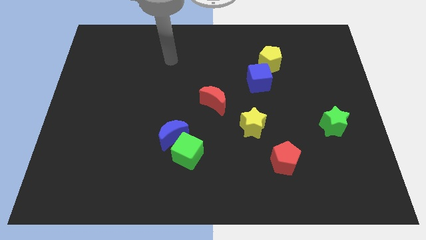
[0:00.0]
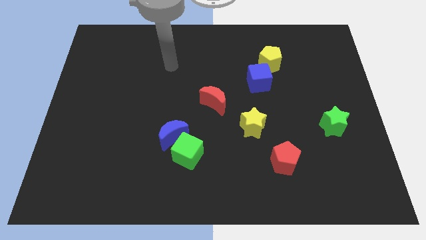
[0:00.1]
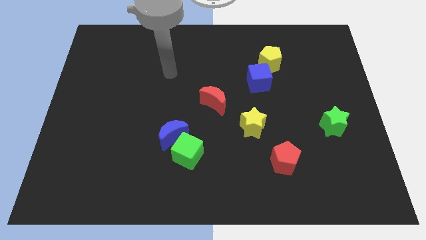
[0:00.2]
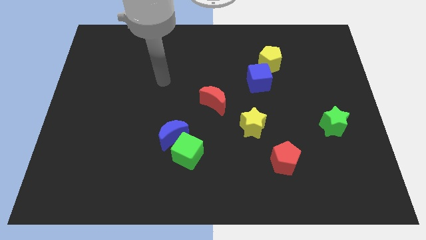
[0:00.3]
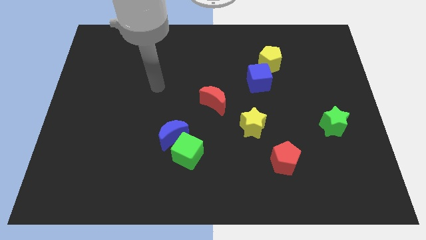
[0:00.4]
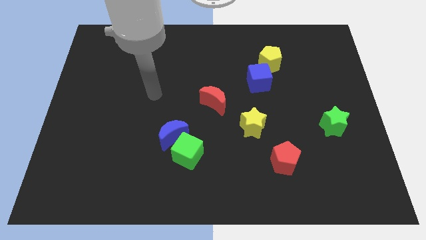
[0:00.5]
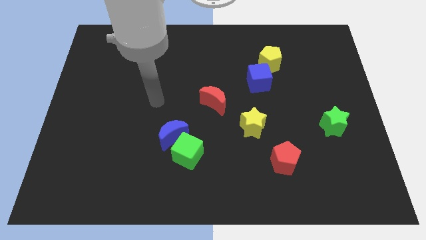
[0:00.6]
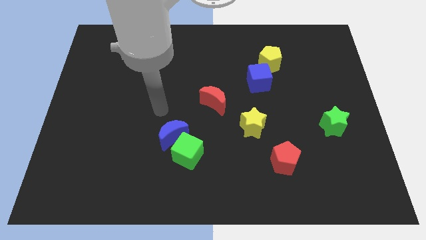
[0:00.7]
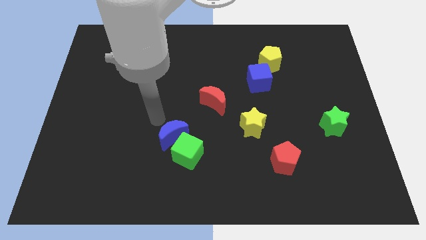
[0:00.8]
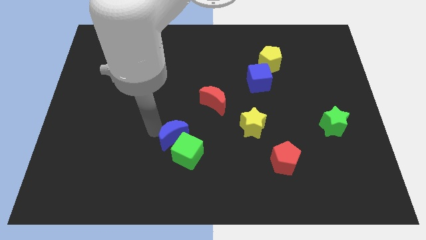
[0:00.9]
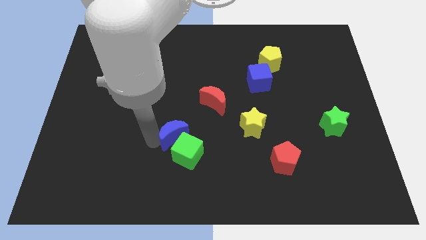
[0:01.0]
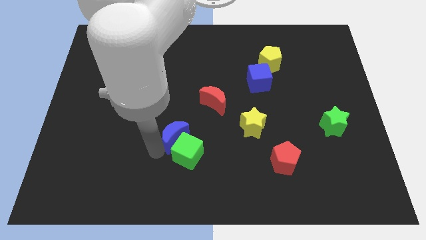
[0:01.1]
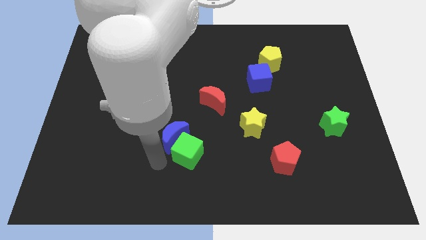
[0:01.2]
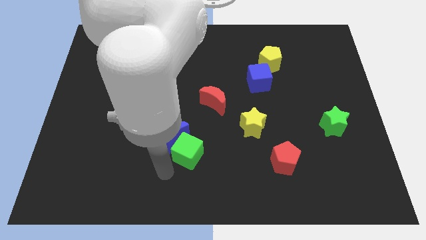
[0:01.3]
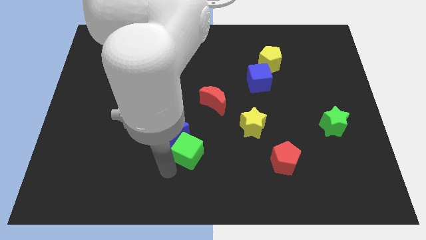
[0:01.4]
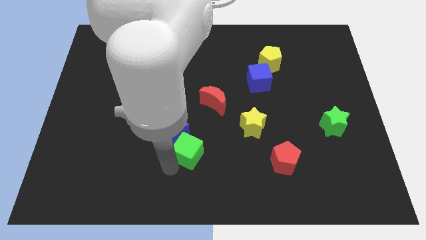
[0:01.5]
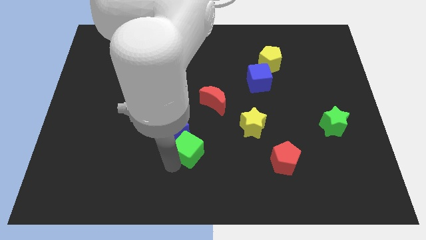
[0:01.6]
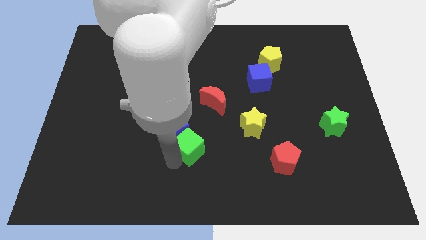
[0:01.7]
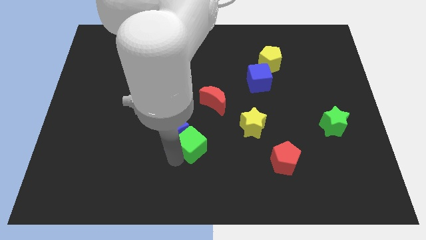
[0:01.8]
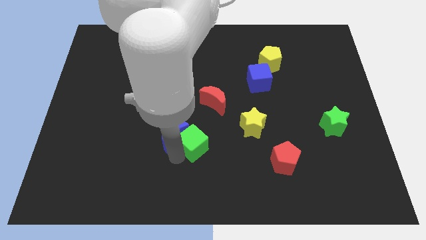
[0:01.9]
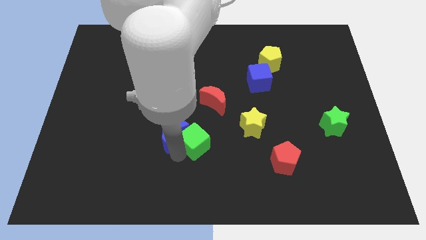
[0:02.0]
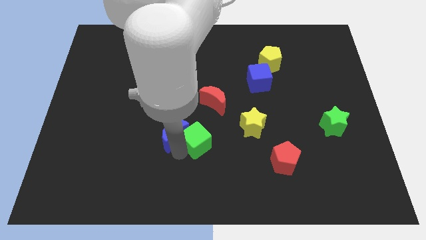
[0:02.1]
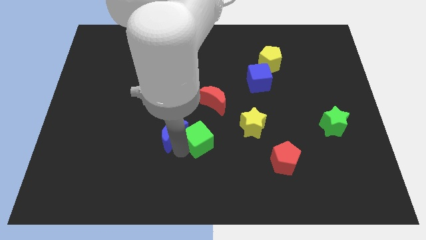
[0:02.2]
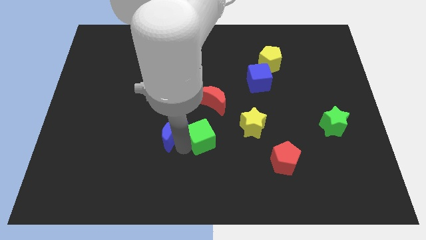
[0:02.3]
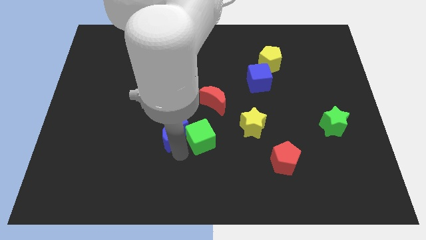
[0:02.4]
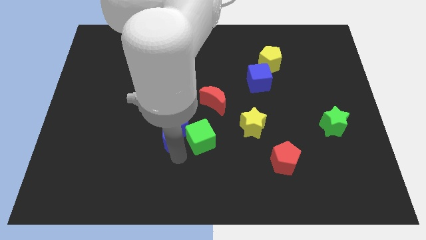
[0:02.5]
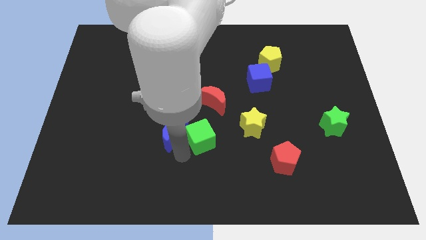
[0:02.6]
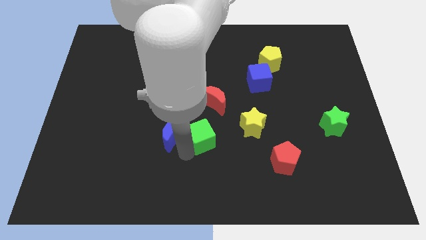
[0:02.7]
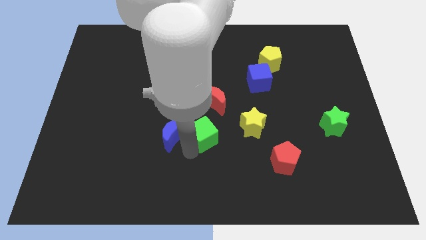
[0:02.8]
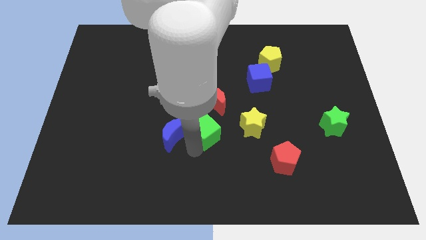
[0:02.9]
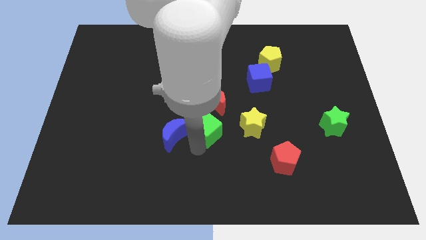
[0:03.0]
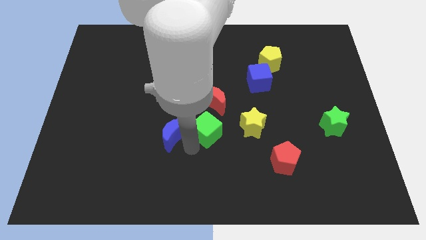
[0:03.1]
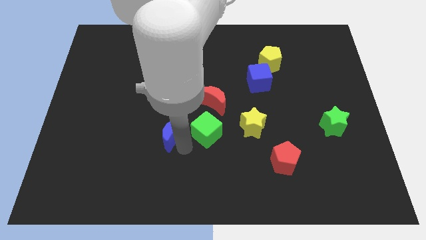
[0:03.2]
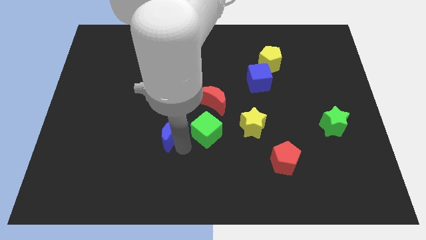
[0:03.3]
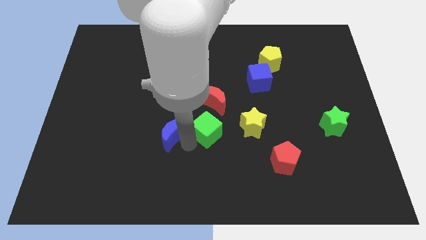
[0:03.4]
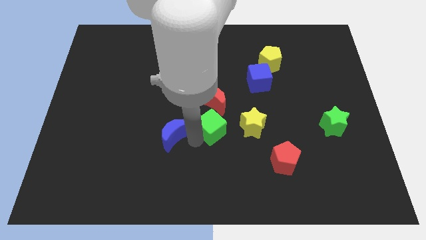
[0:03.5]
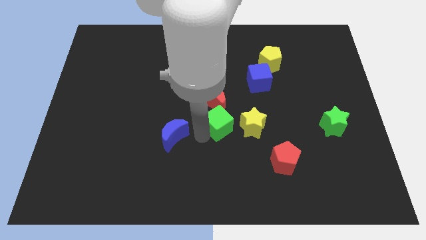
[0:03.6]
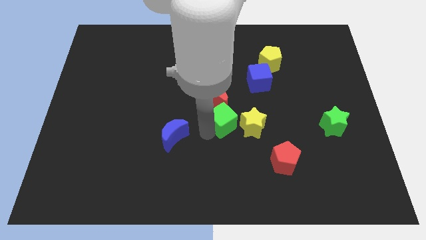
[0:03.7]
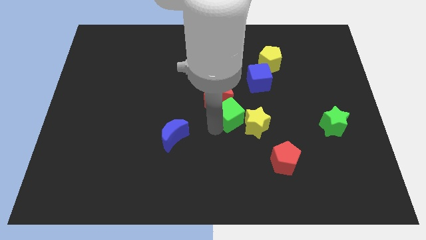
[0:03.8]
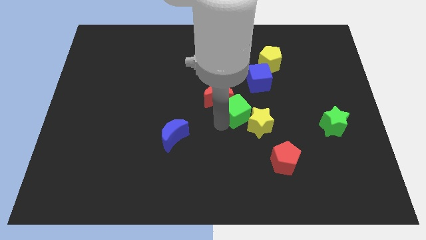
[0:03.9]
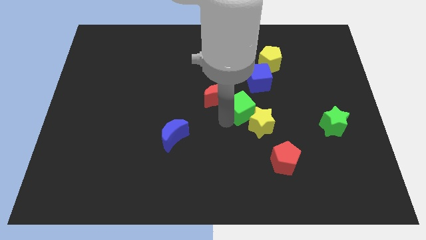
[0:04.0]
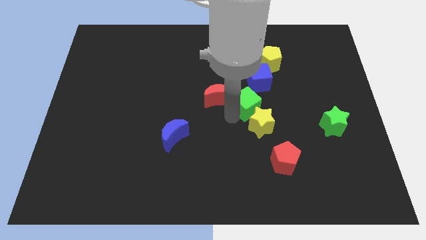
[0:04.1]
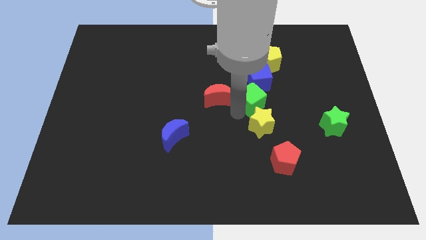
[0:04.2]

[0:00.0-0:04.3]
slide the green cube up and to the right diagonally

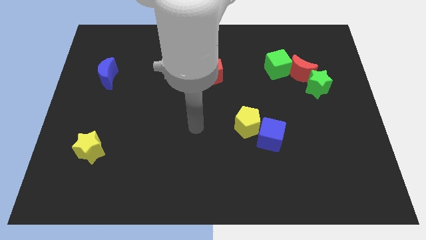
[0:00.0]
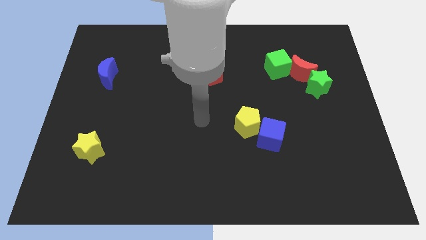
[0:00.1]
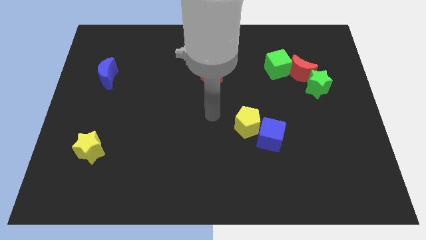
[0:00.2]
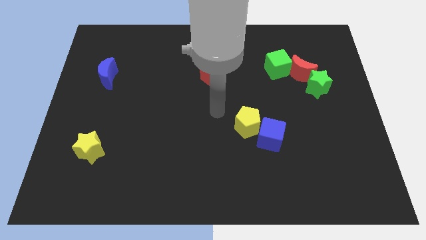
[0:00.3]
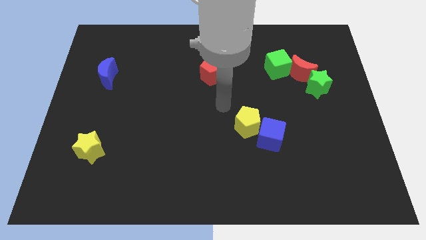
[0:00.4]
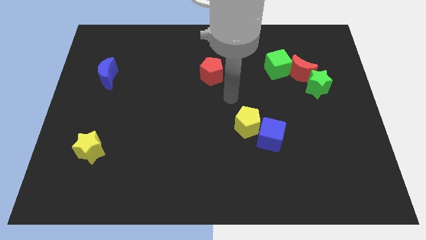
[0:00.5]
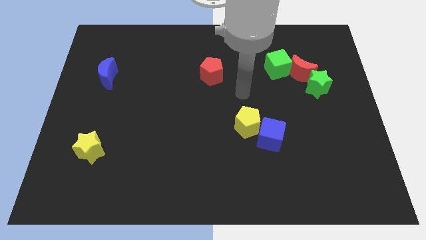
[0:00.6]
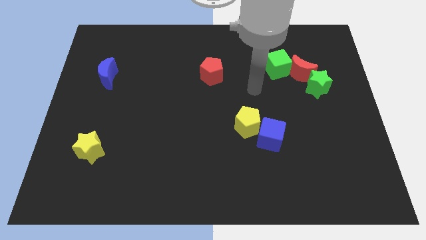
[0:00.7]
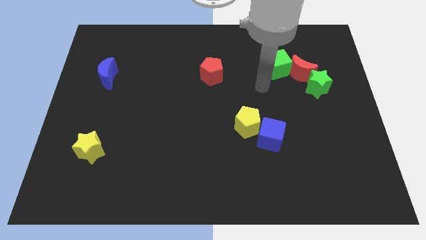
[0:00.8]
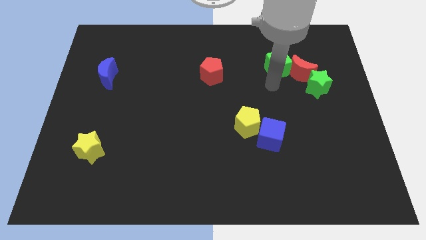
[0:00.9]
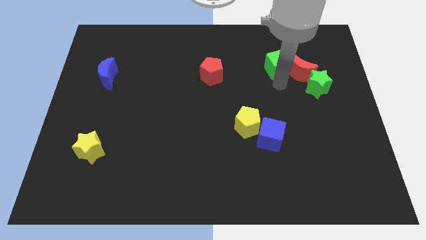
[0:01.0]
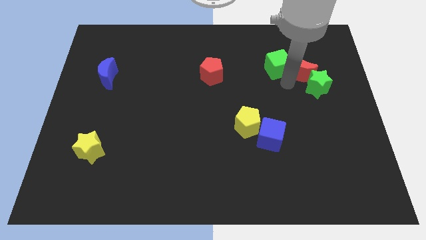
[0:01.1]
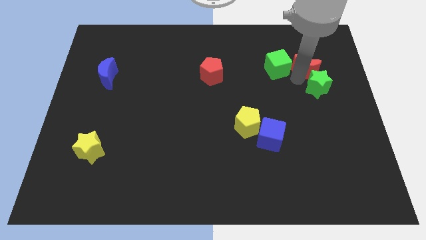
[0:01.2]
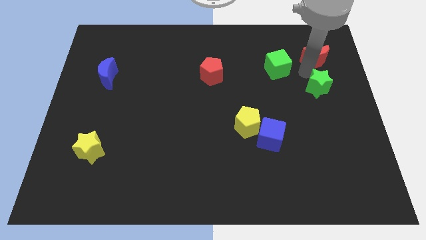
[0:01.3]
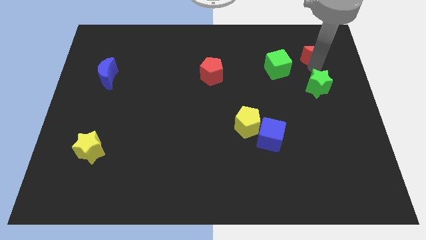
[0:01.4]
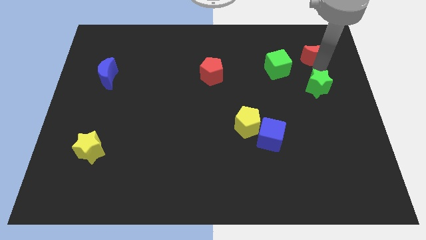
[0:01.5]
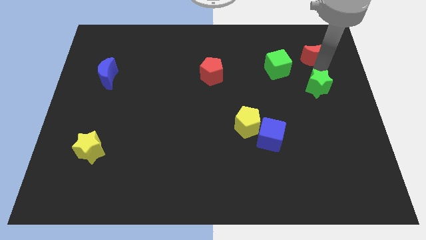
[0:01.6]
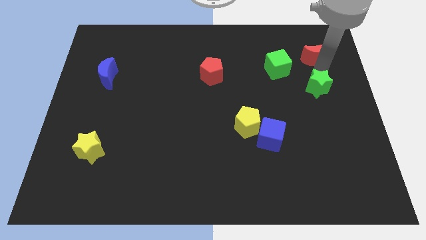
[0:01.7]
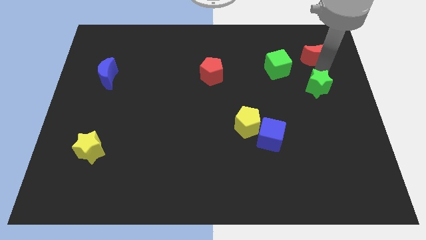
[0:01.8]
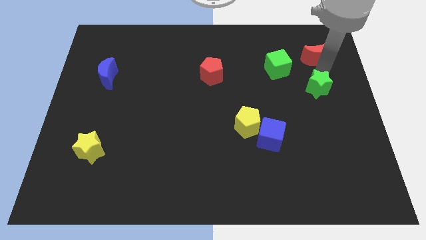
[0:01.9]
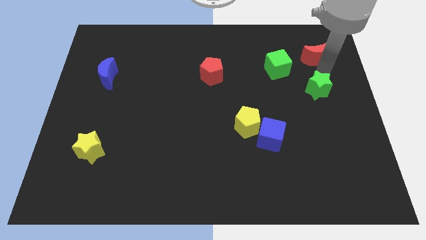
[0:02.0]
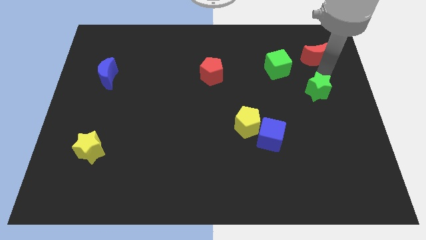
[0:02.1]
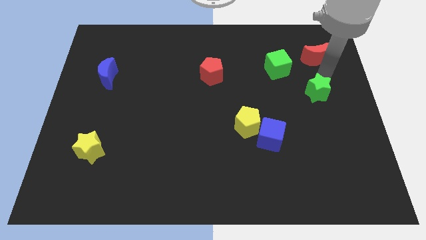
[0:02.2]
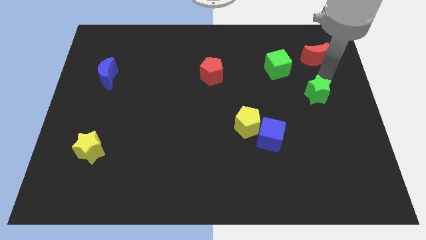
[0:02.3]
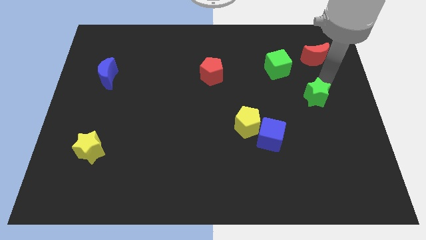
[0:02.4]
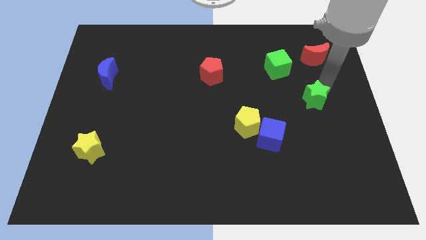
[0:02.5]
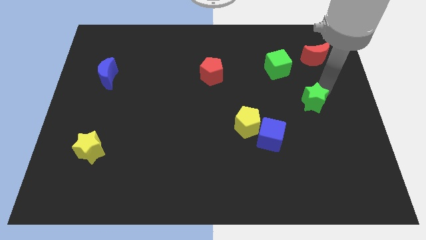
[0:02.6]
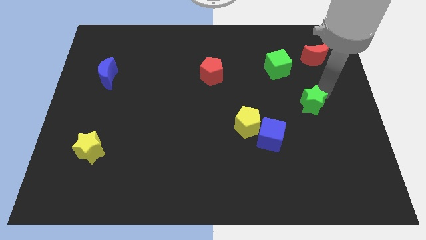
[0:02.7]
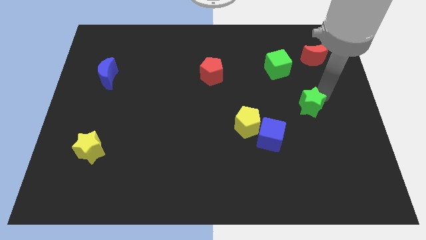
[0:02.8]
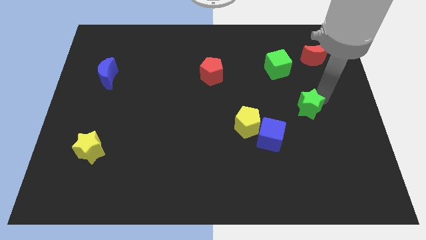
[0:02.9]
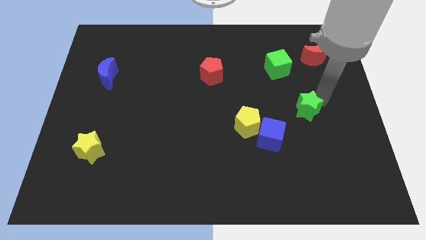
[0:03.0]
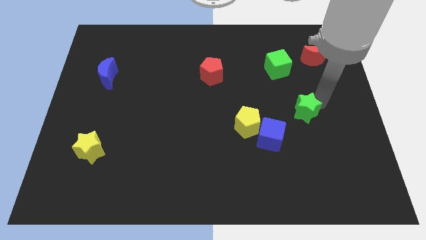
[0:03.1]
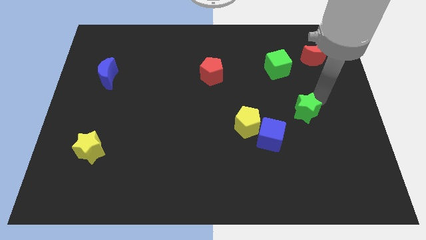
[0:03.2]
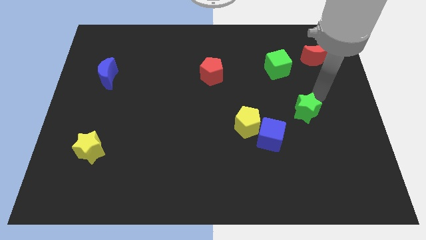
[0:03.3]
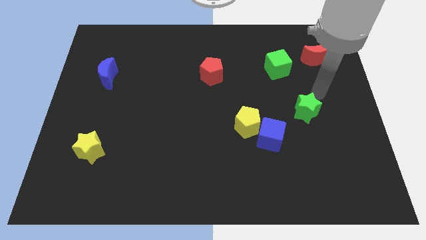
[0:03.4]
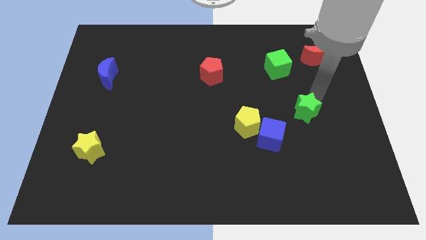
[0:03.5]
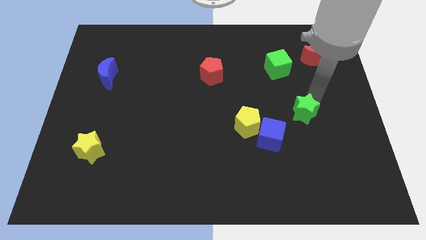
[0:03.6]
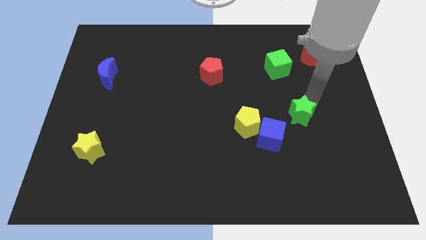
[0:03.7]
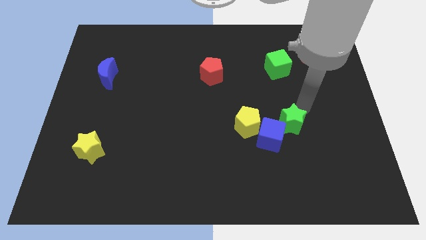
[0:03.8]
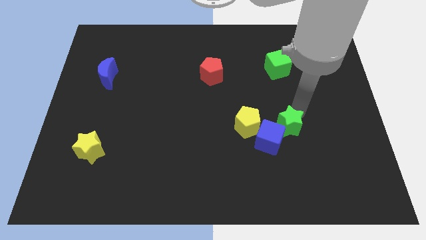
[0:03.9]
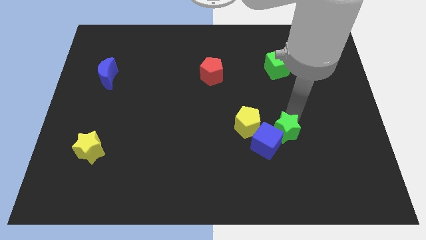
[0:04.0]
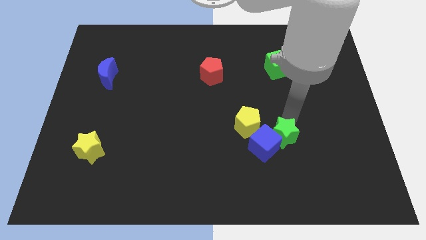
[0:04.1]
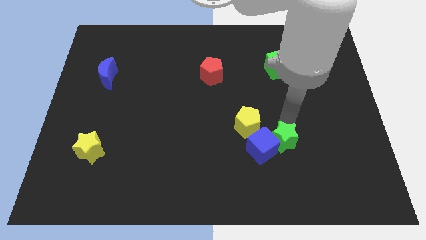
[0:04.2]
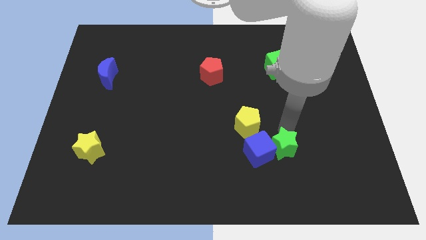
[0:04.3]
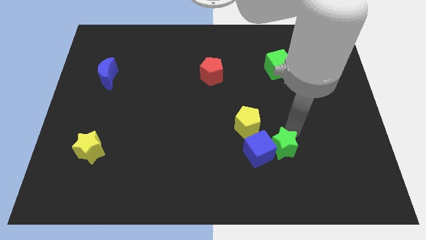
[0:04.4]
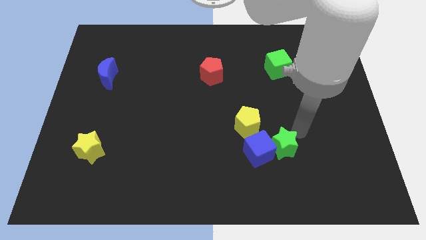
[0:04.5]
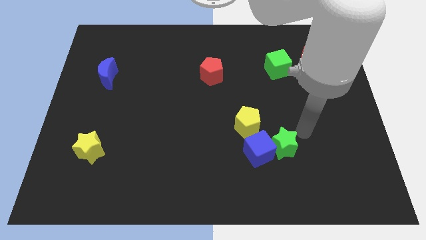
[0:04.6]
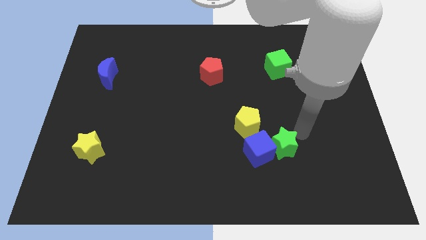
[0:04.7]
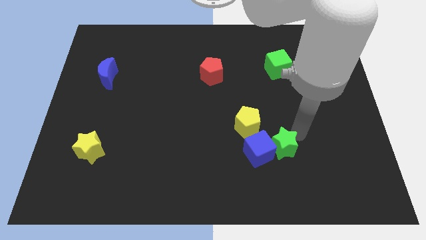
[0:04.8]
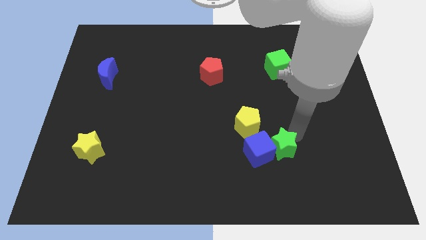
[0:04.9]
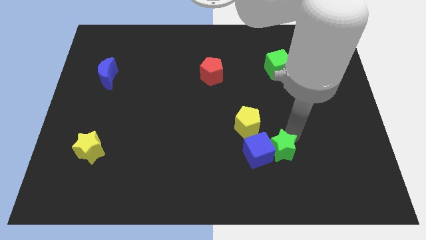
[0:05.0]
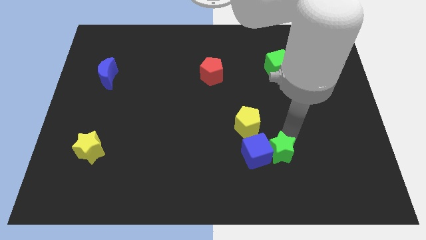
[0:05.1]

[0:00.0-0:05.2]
slide the green star downwards and left diagonally
